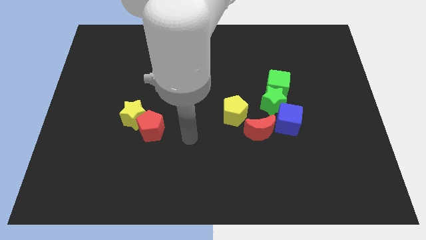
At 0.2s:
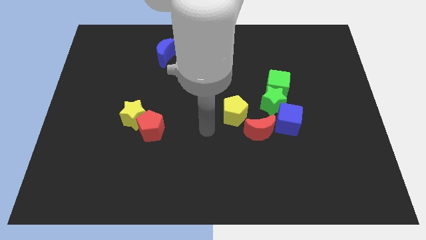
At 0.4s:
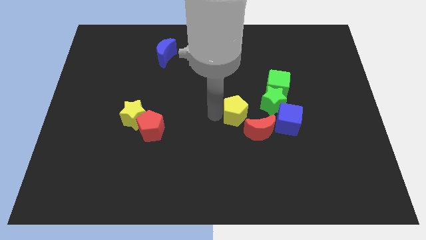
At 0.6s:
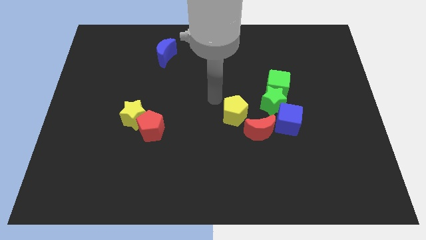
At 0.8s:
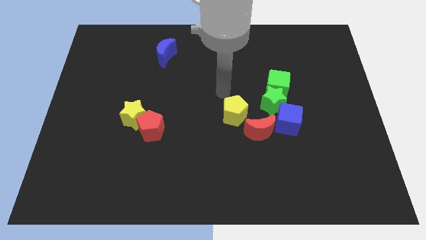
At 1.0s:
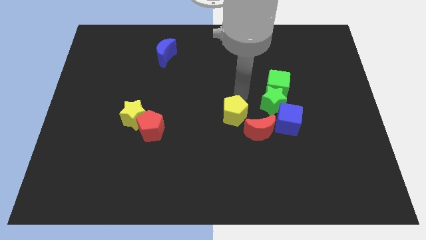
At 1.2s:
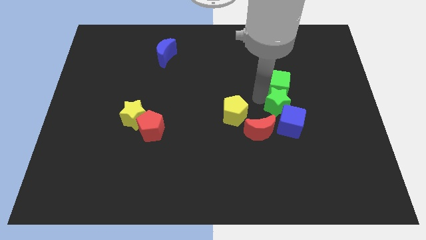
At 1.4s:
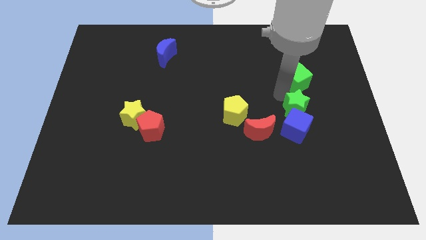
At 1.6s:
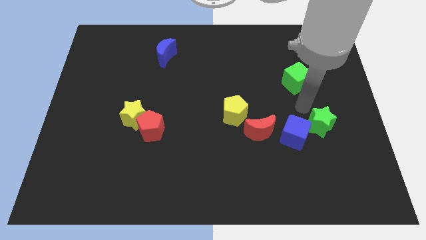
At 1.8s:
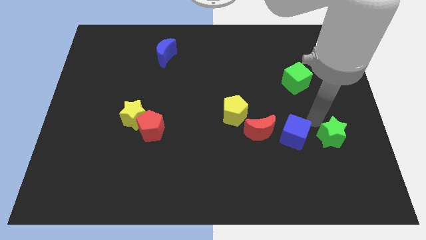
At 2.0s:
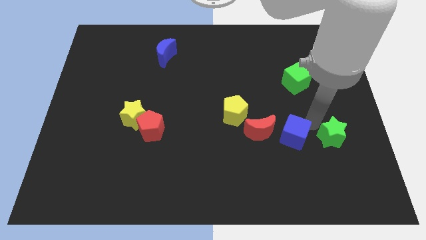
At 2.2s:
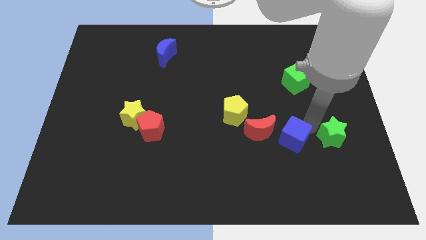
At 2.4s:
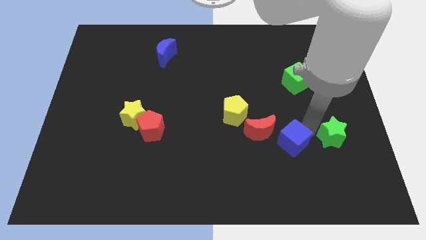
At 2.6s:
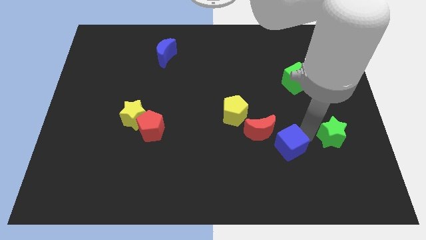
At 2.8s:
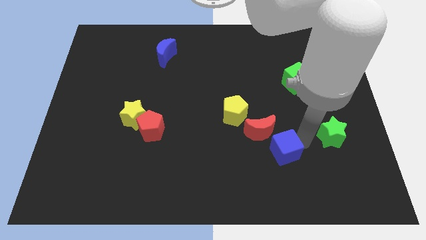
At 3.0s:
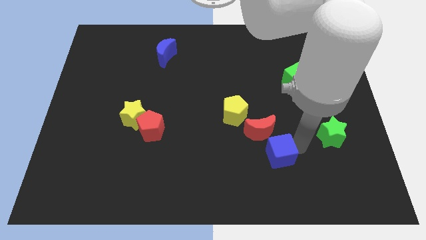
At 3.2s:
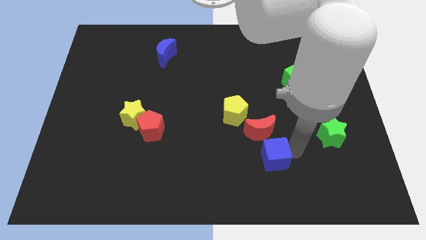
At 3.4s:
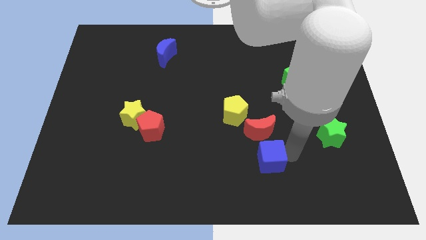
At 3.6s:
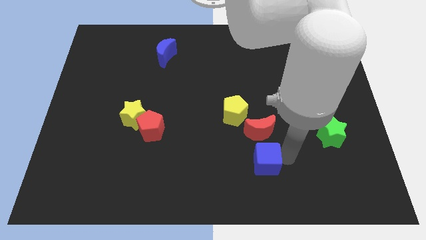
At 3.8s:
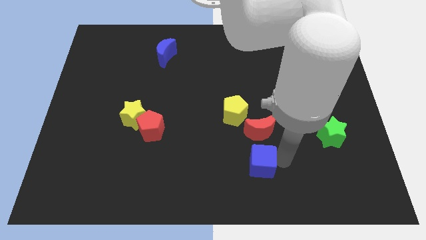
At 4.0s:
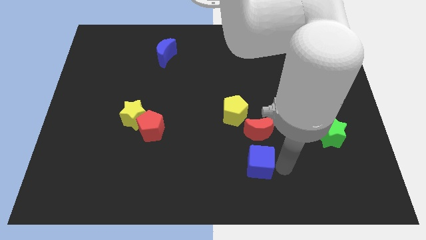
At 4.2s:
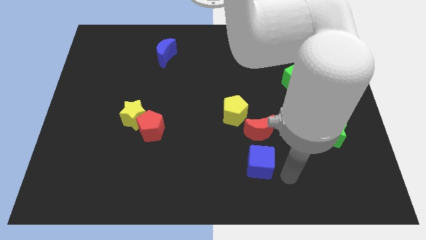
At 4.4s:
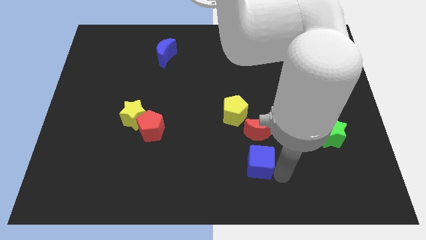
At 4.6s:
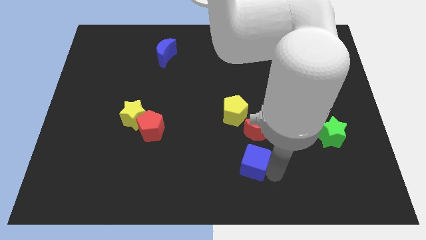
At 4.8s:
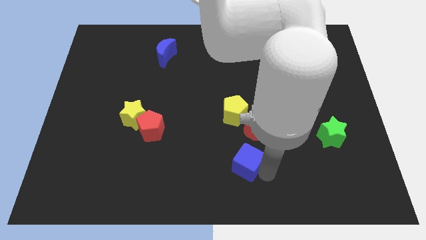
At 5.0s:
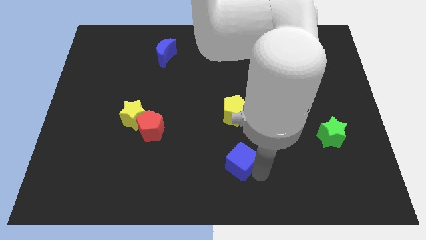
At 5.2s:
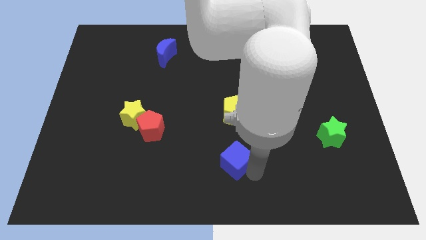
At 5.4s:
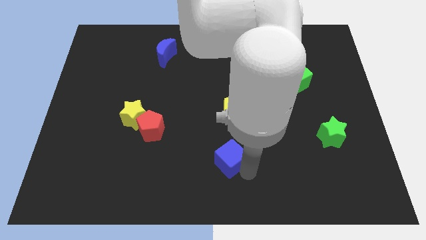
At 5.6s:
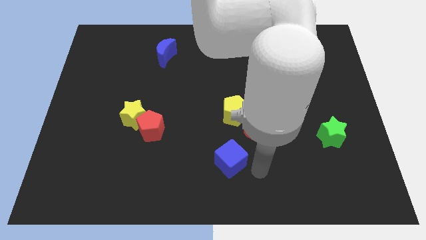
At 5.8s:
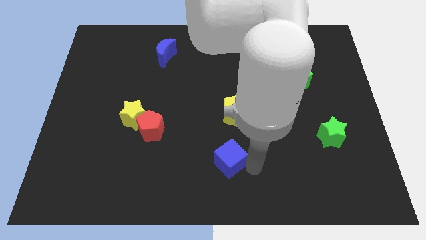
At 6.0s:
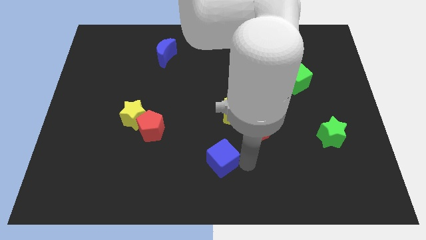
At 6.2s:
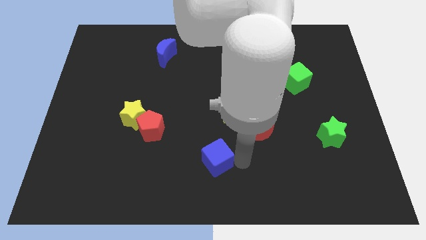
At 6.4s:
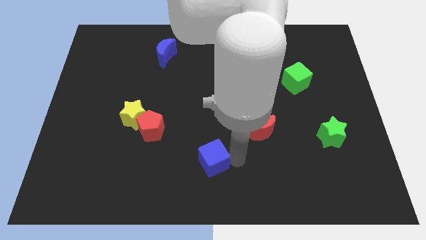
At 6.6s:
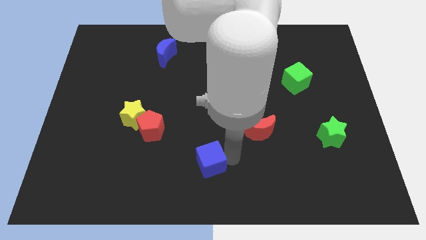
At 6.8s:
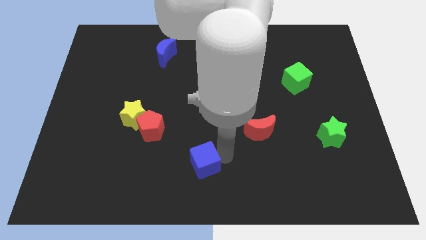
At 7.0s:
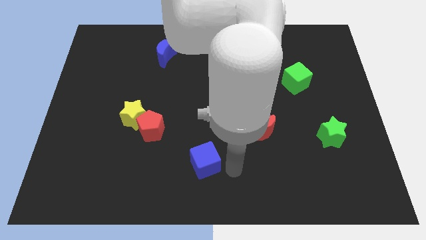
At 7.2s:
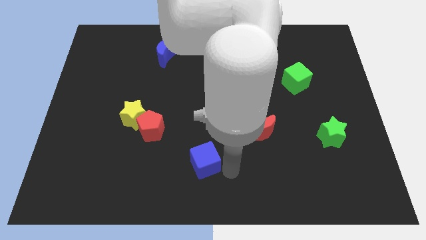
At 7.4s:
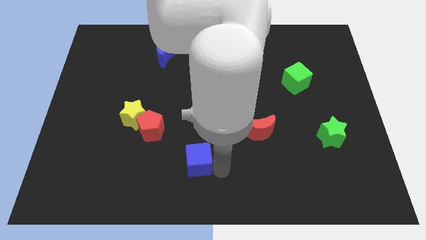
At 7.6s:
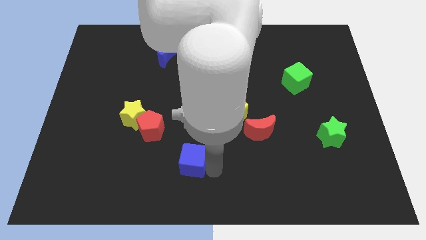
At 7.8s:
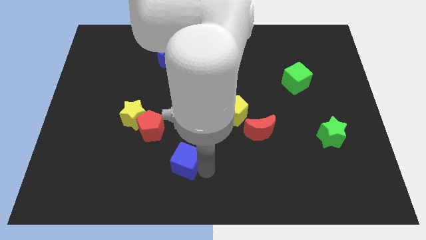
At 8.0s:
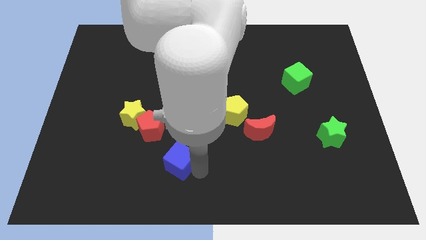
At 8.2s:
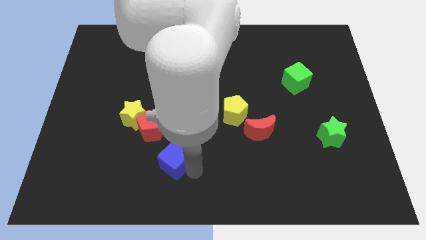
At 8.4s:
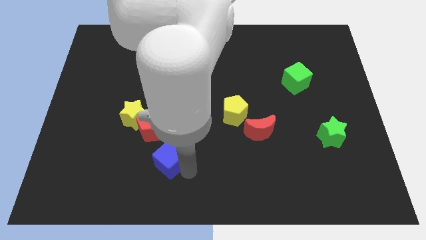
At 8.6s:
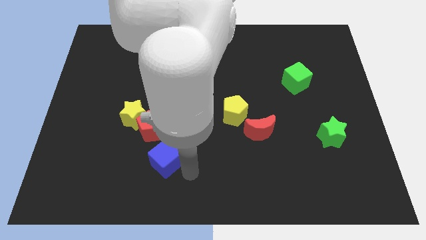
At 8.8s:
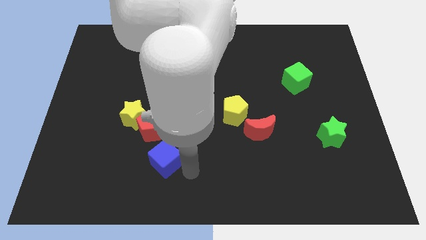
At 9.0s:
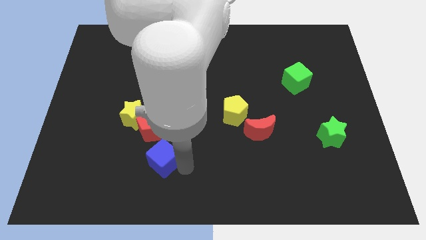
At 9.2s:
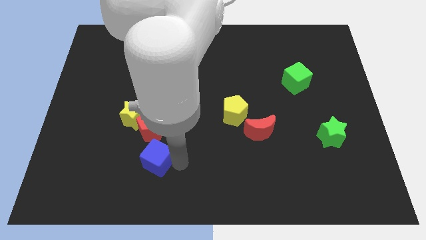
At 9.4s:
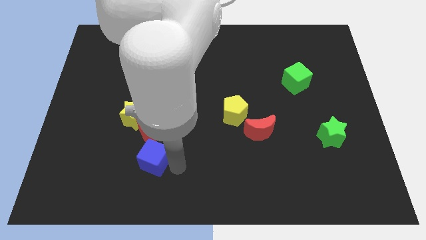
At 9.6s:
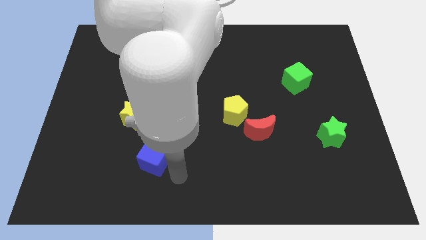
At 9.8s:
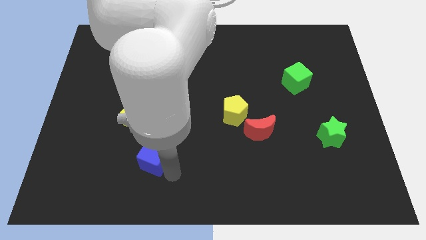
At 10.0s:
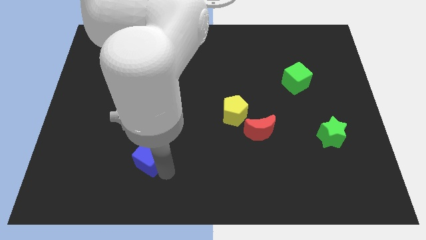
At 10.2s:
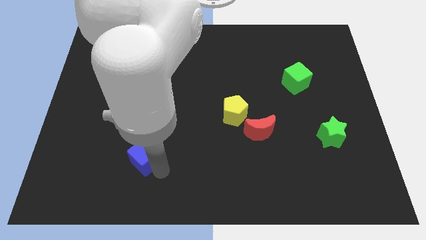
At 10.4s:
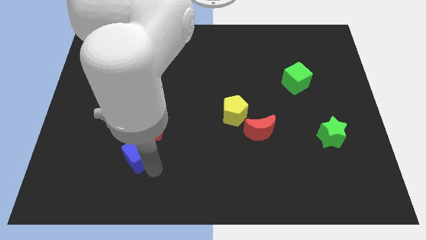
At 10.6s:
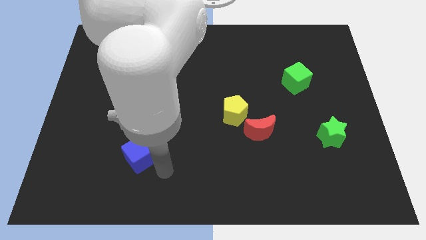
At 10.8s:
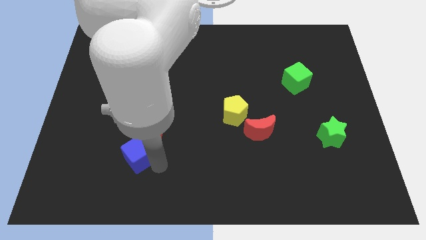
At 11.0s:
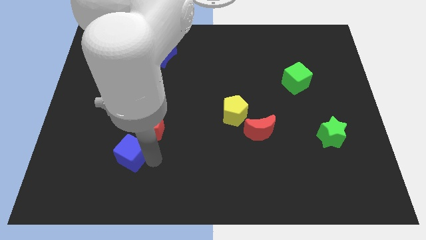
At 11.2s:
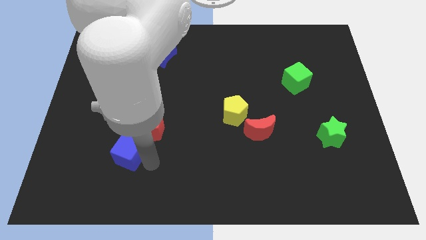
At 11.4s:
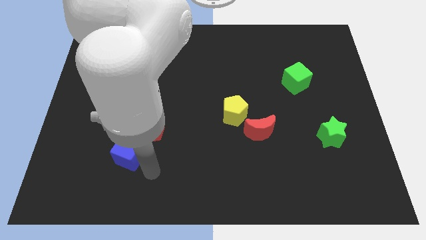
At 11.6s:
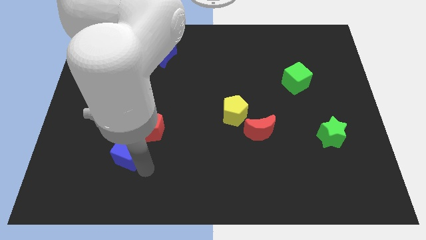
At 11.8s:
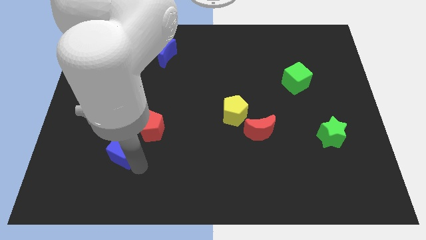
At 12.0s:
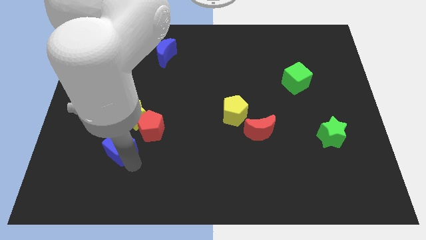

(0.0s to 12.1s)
put the blue cube diagonally down and to the left of the yellow star

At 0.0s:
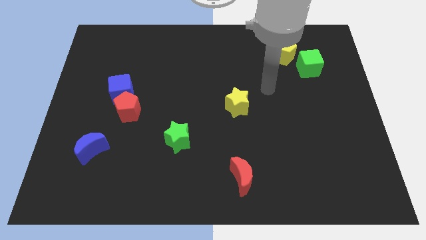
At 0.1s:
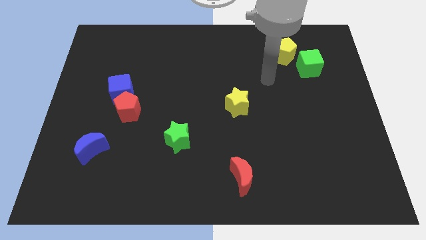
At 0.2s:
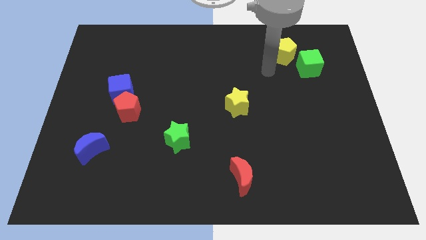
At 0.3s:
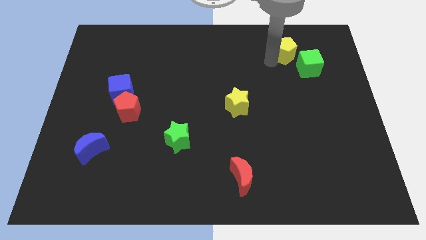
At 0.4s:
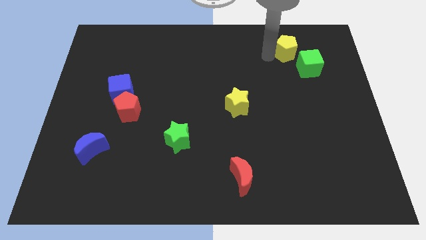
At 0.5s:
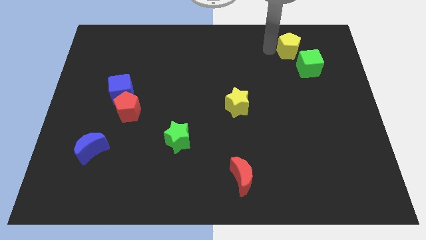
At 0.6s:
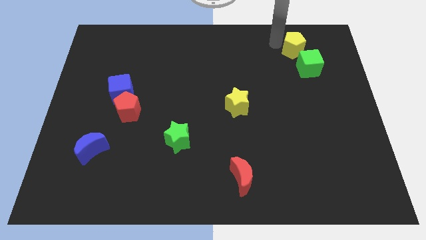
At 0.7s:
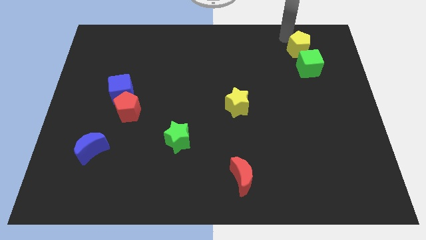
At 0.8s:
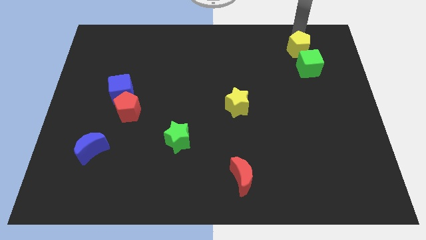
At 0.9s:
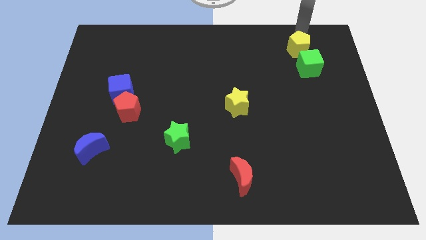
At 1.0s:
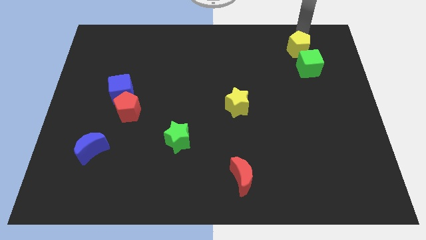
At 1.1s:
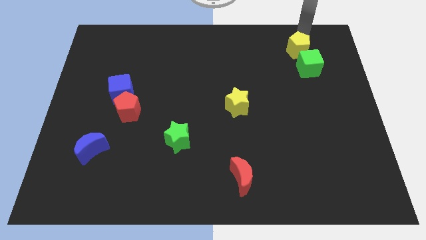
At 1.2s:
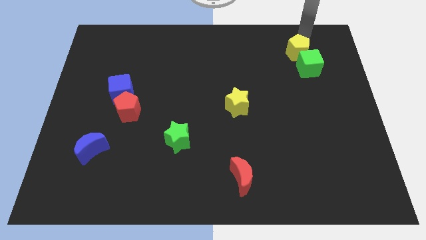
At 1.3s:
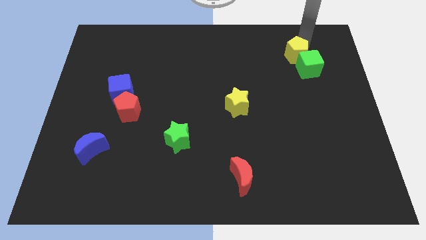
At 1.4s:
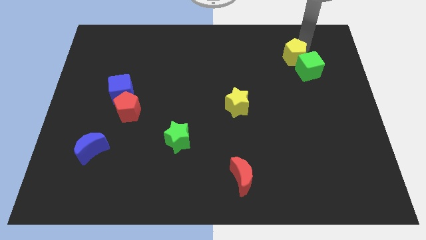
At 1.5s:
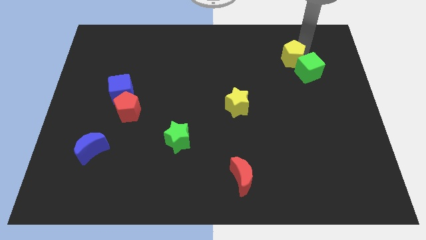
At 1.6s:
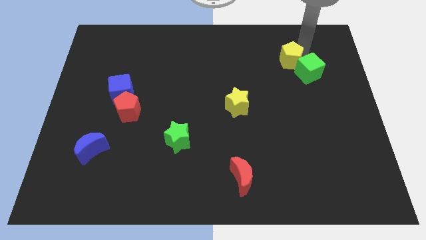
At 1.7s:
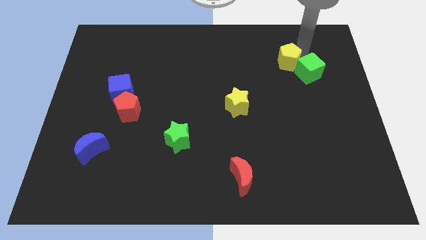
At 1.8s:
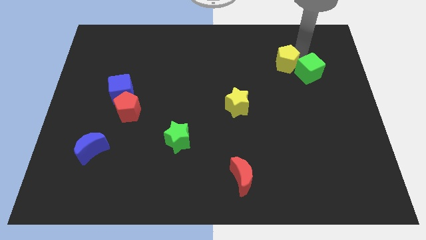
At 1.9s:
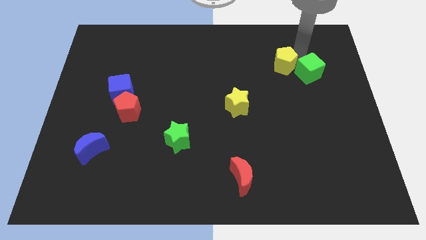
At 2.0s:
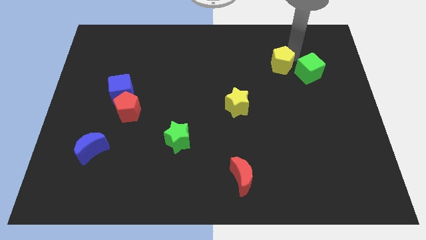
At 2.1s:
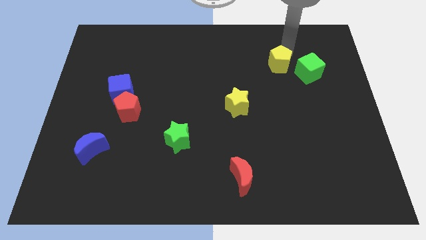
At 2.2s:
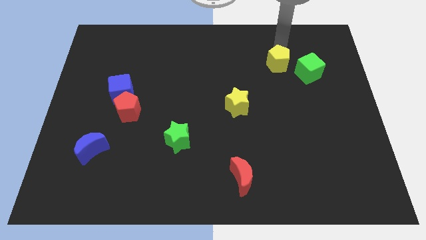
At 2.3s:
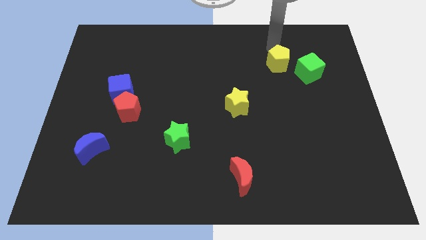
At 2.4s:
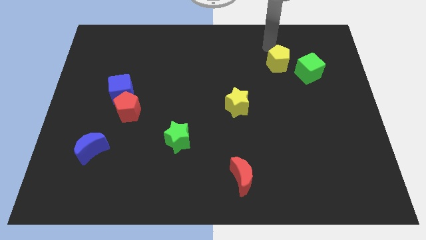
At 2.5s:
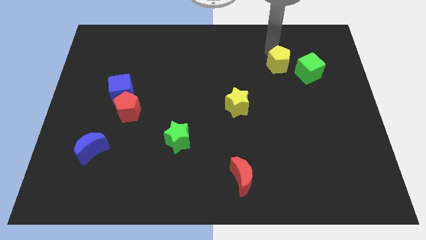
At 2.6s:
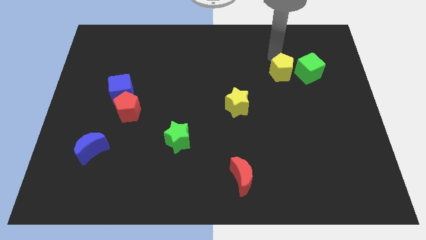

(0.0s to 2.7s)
slide the yellow pentagon to the bottom left side of the green cube
